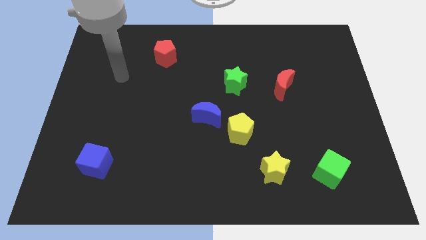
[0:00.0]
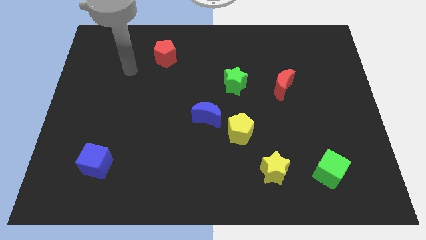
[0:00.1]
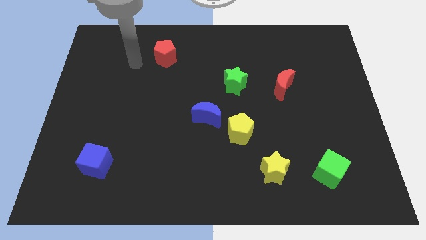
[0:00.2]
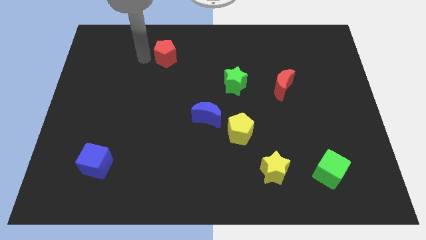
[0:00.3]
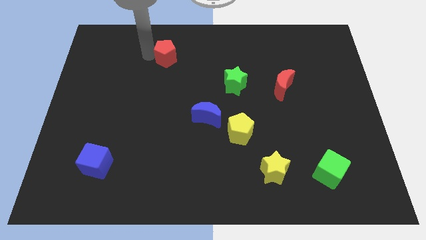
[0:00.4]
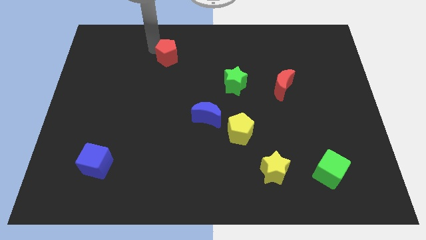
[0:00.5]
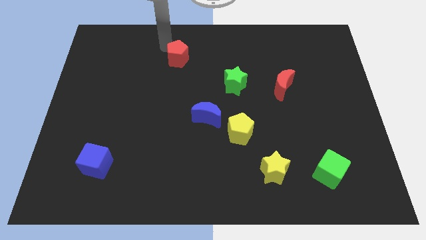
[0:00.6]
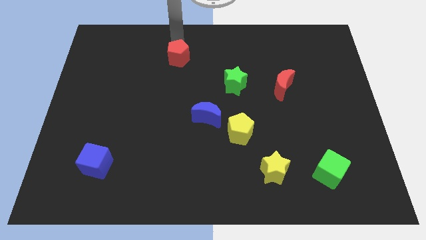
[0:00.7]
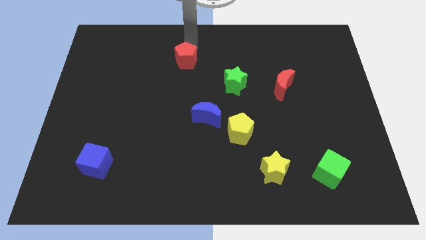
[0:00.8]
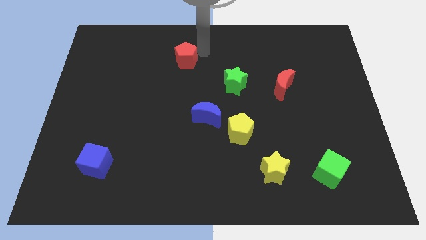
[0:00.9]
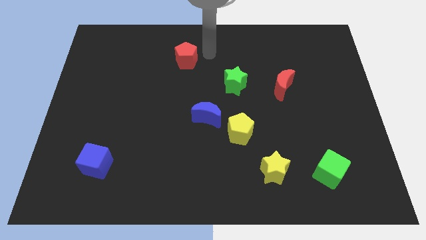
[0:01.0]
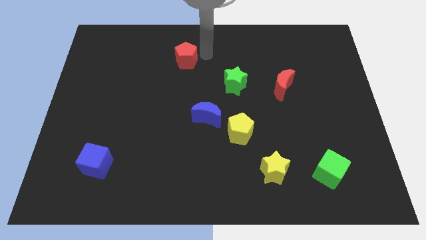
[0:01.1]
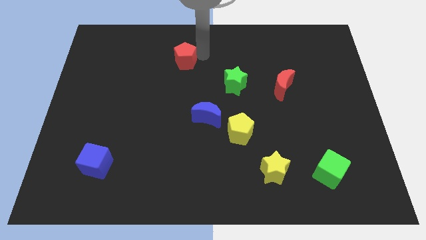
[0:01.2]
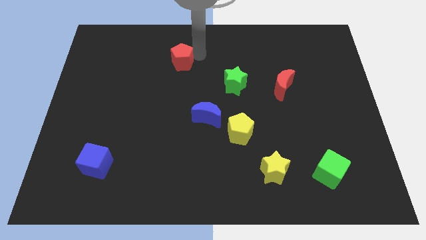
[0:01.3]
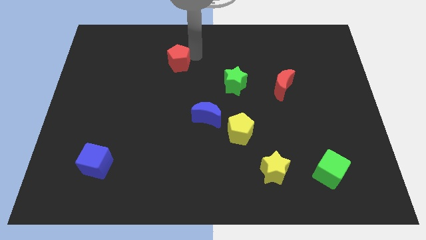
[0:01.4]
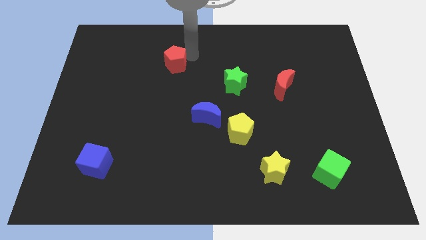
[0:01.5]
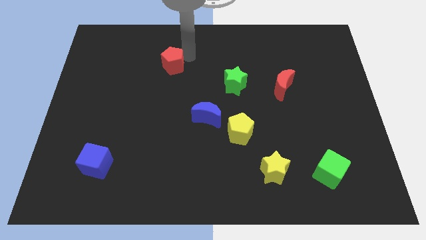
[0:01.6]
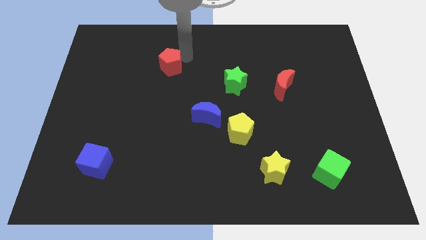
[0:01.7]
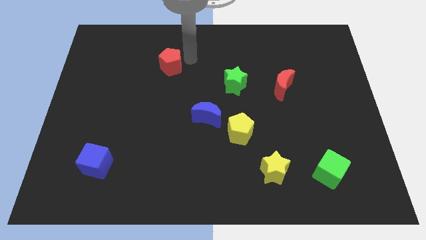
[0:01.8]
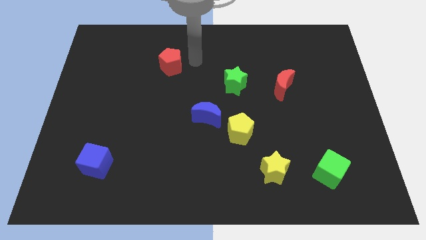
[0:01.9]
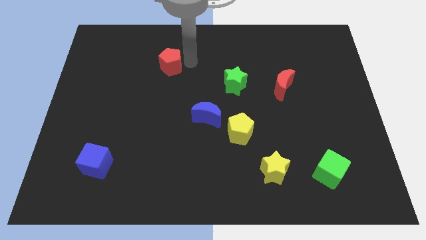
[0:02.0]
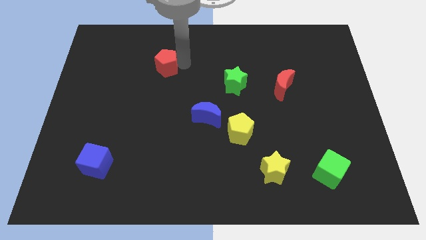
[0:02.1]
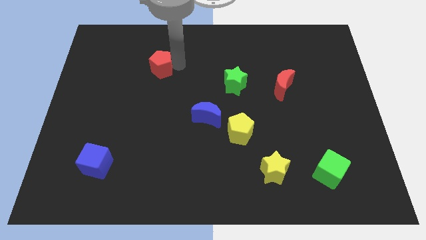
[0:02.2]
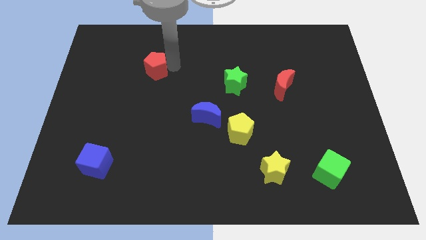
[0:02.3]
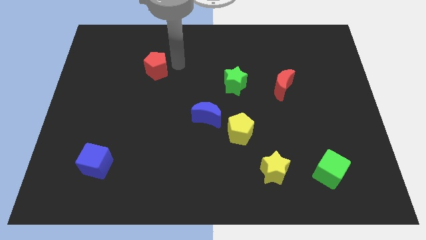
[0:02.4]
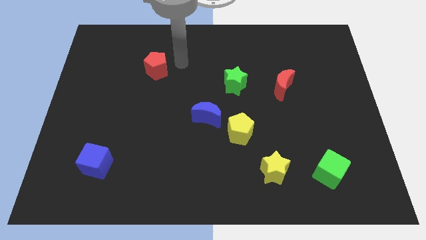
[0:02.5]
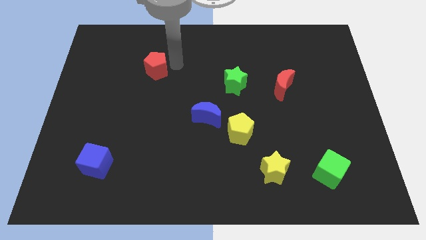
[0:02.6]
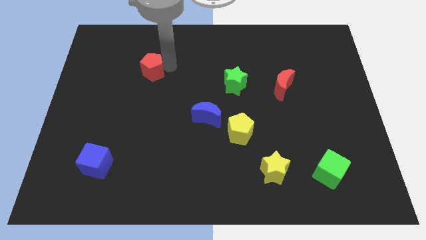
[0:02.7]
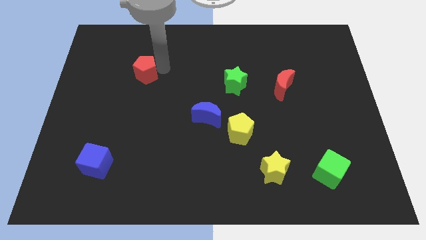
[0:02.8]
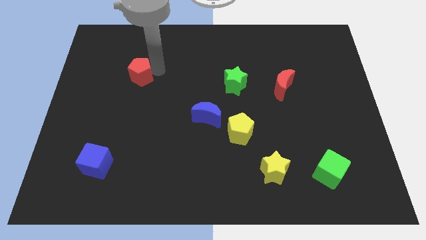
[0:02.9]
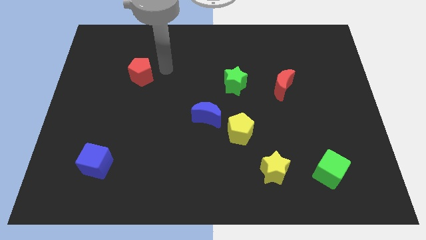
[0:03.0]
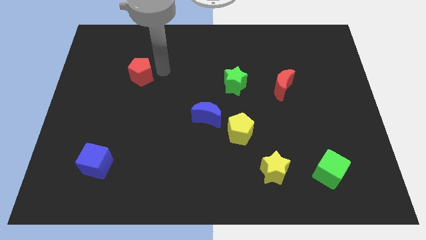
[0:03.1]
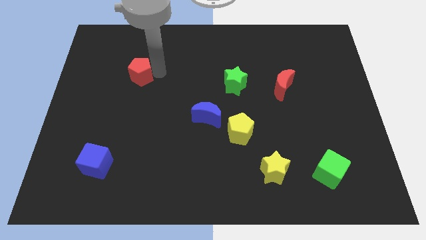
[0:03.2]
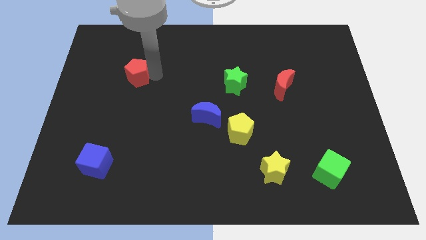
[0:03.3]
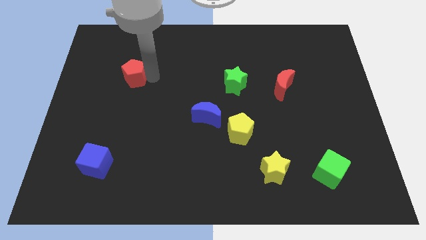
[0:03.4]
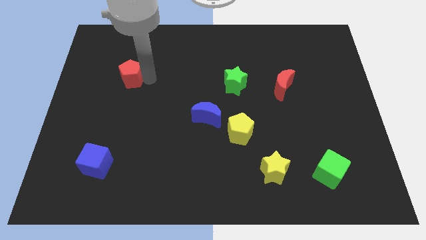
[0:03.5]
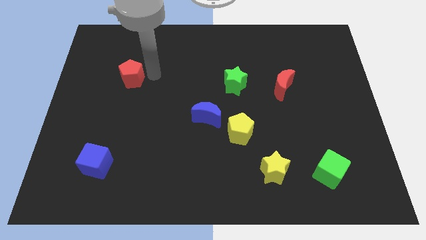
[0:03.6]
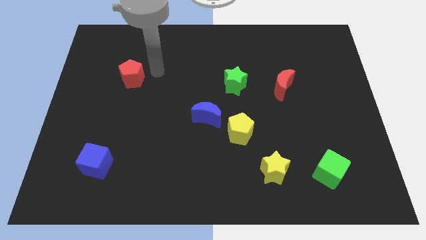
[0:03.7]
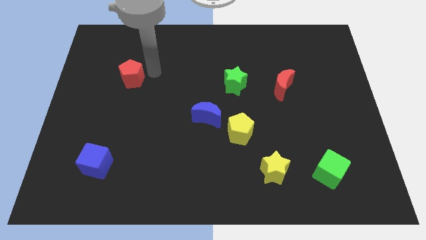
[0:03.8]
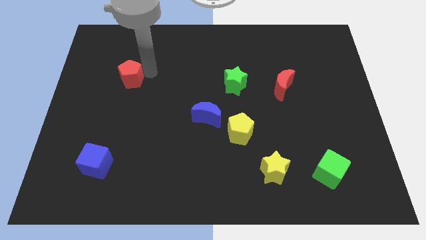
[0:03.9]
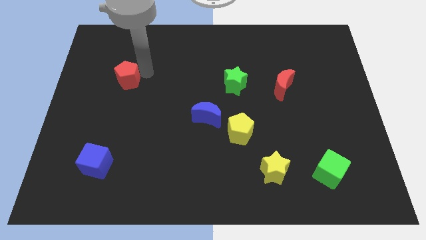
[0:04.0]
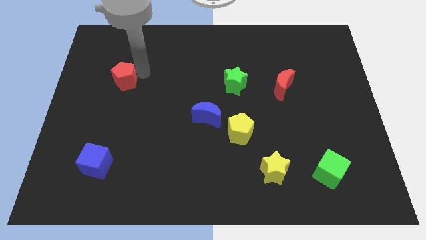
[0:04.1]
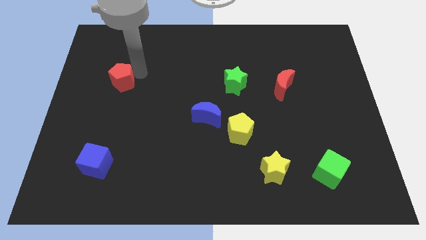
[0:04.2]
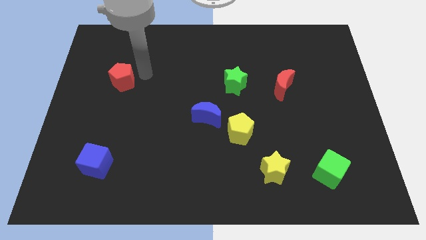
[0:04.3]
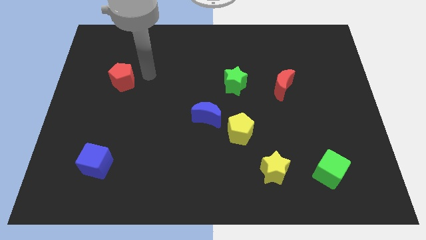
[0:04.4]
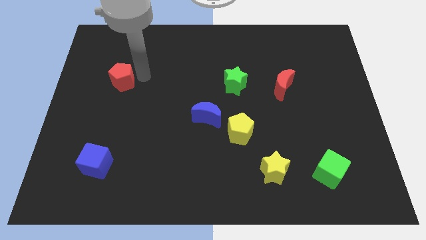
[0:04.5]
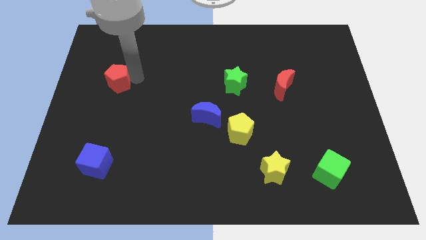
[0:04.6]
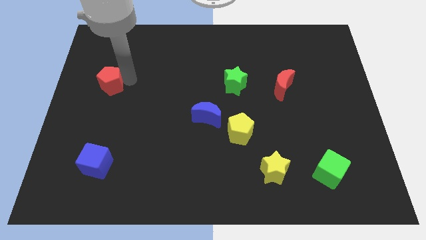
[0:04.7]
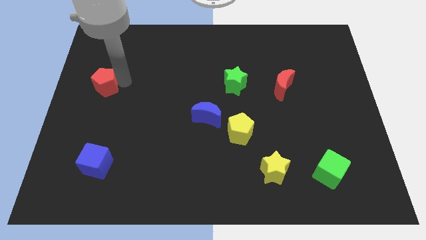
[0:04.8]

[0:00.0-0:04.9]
put the red pentagon to the center left

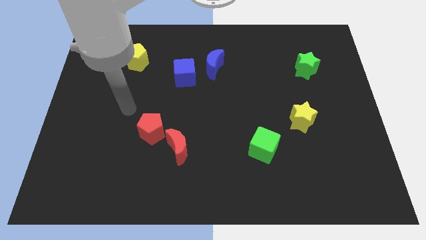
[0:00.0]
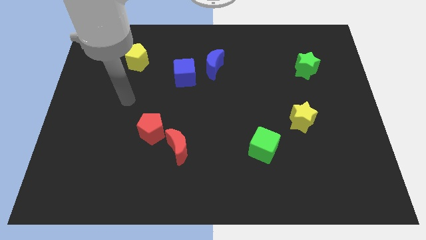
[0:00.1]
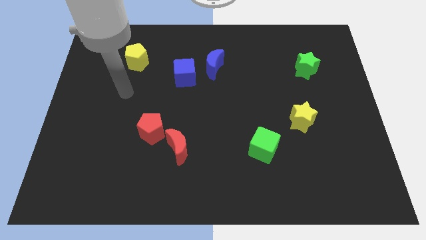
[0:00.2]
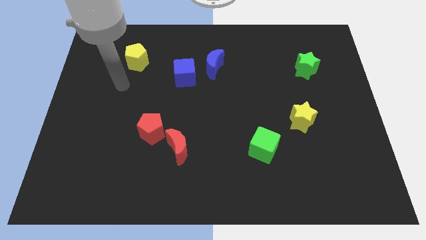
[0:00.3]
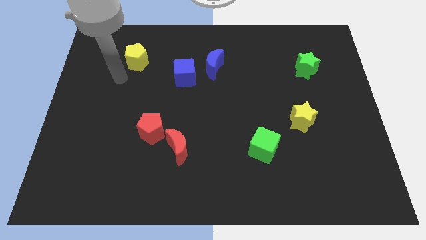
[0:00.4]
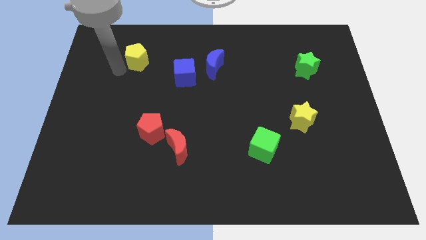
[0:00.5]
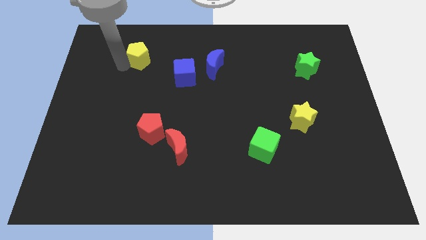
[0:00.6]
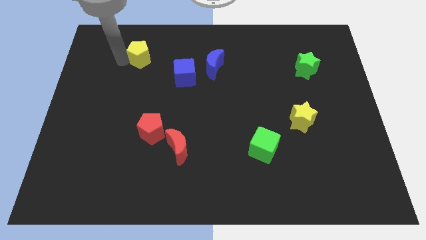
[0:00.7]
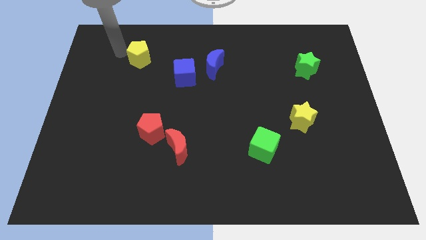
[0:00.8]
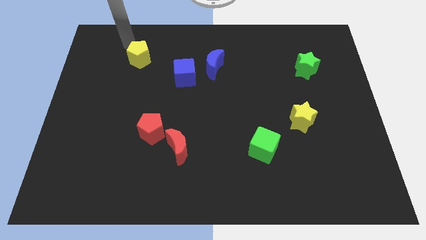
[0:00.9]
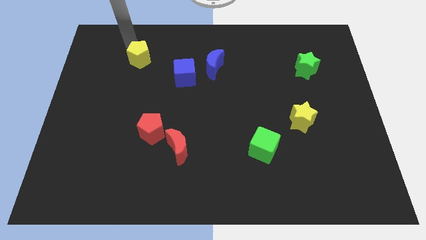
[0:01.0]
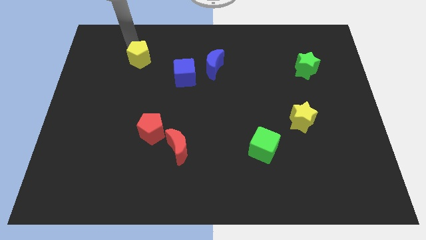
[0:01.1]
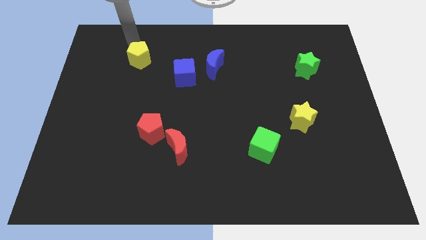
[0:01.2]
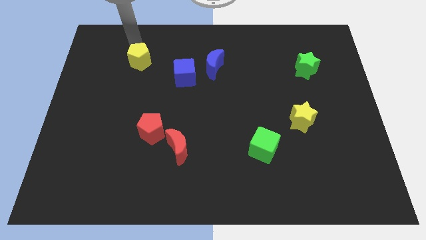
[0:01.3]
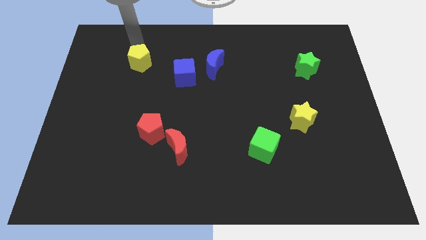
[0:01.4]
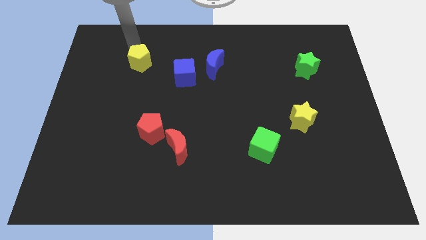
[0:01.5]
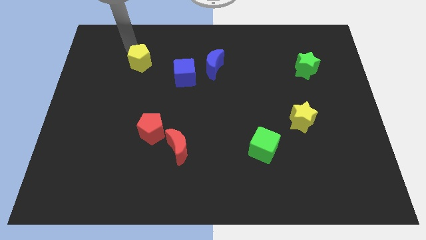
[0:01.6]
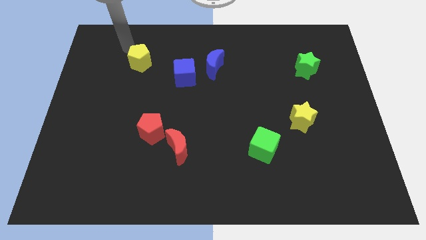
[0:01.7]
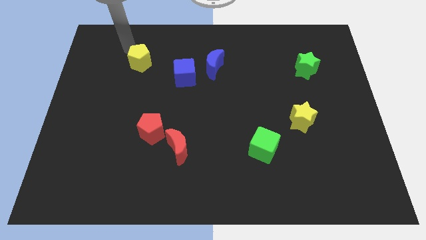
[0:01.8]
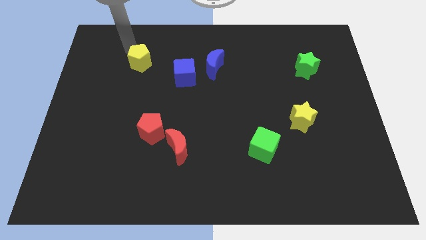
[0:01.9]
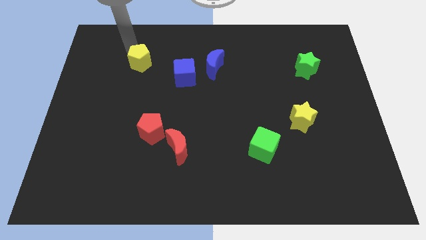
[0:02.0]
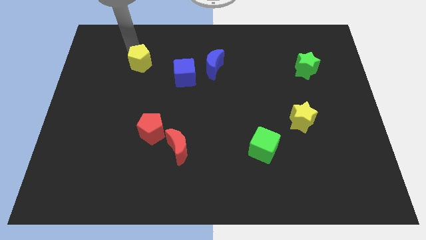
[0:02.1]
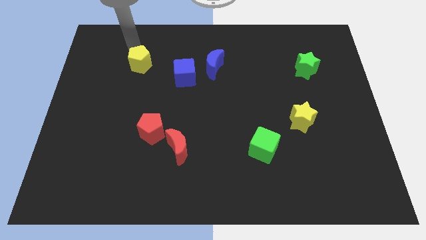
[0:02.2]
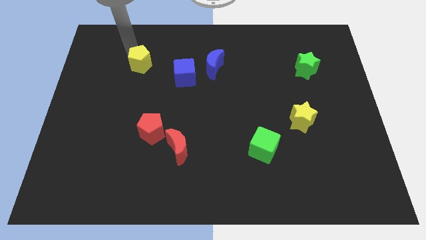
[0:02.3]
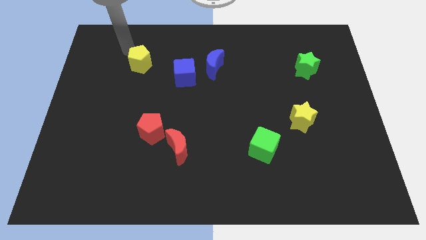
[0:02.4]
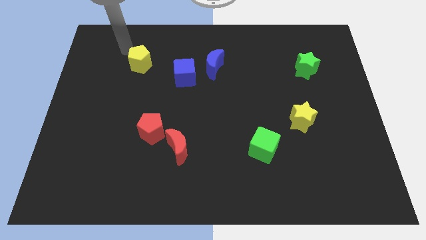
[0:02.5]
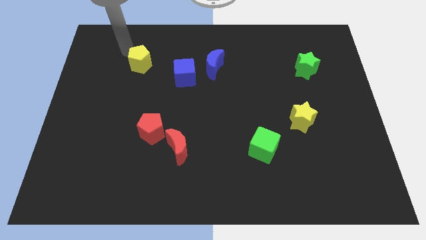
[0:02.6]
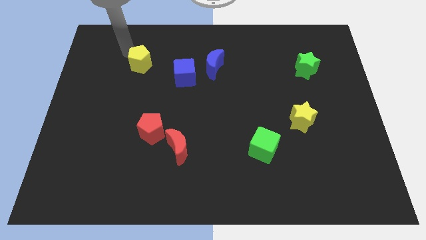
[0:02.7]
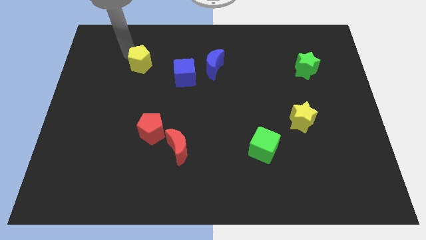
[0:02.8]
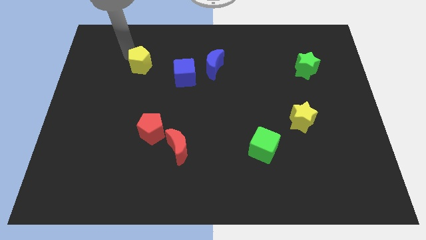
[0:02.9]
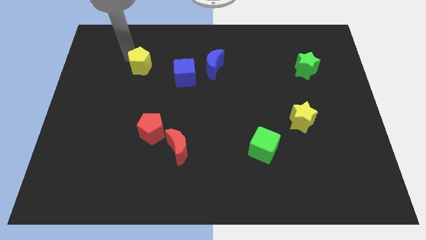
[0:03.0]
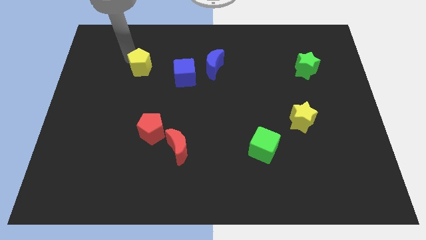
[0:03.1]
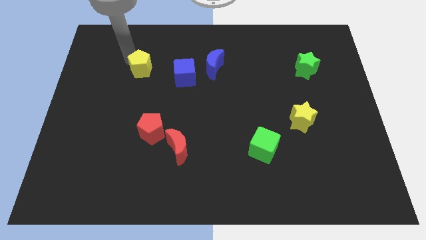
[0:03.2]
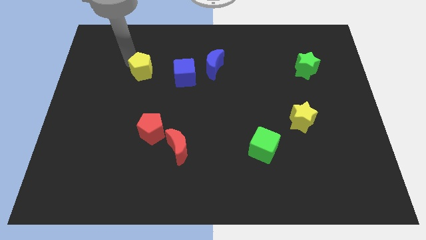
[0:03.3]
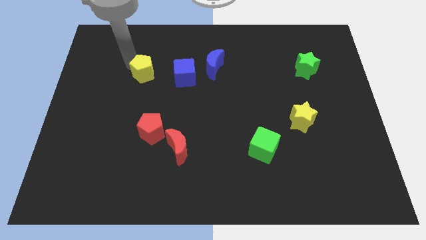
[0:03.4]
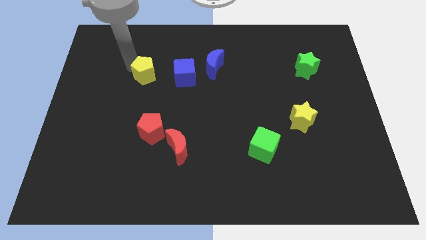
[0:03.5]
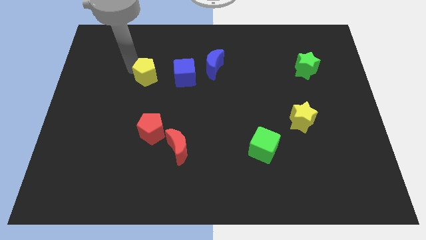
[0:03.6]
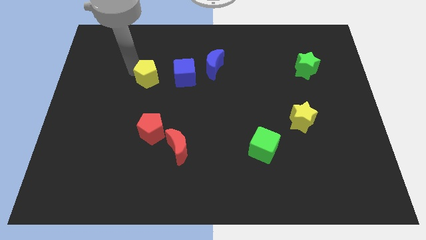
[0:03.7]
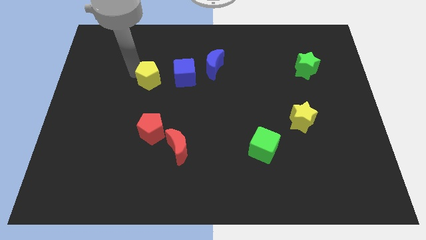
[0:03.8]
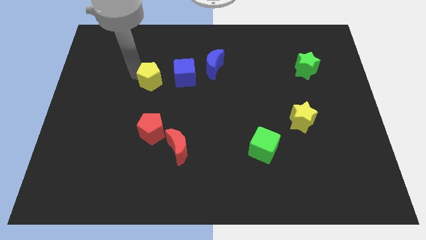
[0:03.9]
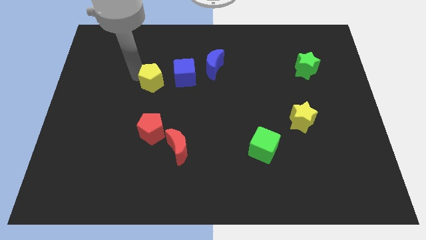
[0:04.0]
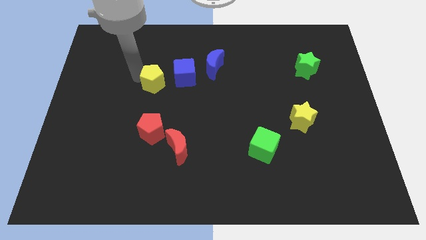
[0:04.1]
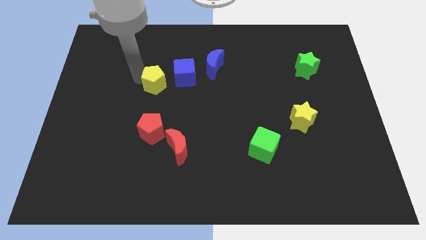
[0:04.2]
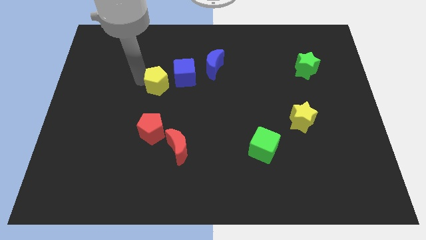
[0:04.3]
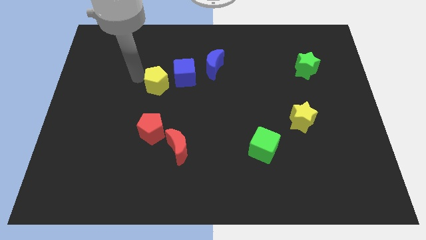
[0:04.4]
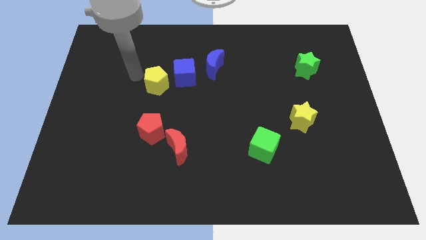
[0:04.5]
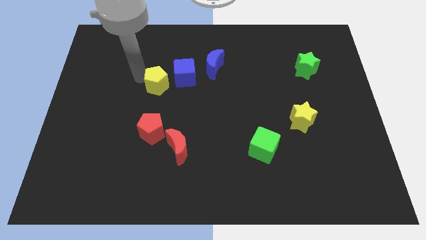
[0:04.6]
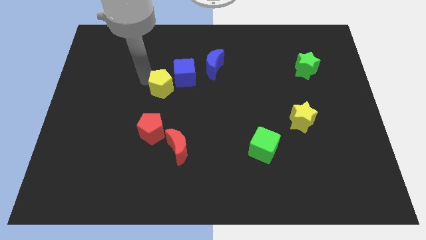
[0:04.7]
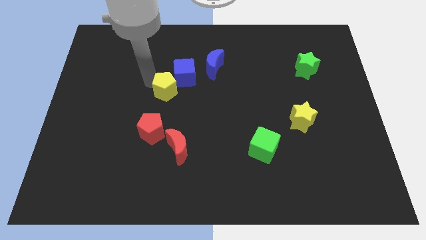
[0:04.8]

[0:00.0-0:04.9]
push the yellow pentagon to the center
